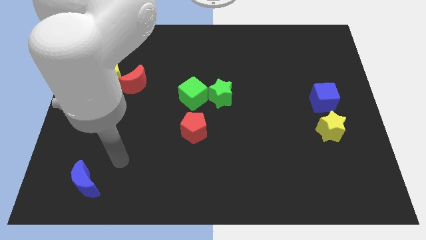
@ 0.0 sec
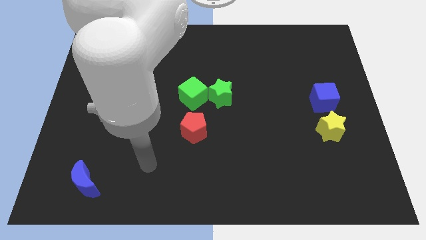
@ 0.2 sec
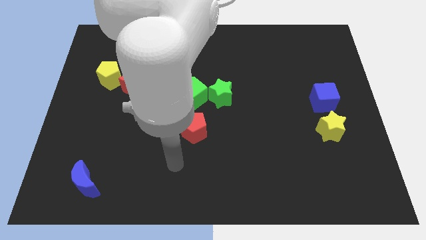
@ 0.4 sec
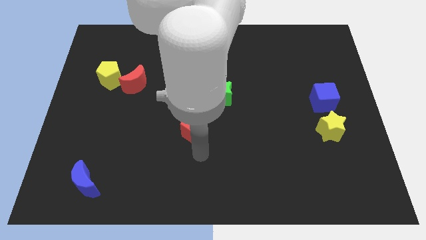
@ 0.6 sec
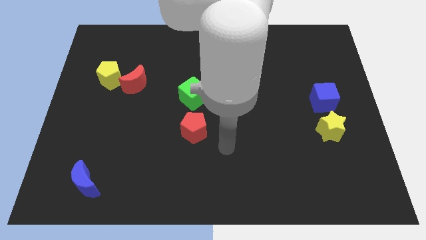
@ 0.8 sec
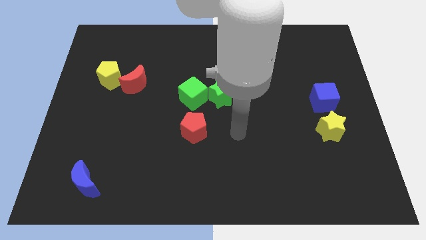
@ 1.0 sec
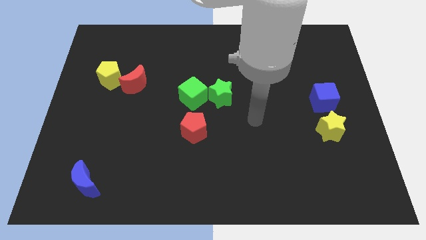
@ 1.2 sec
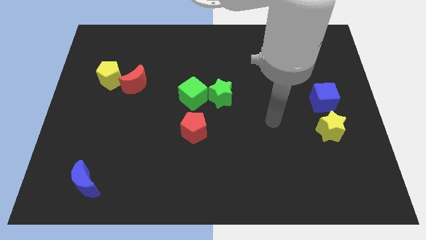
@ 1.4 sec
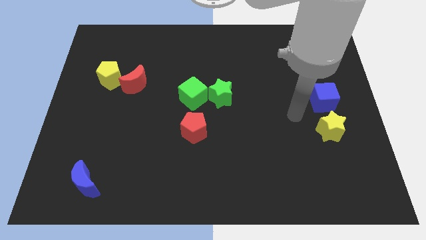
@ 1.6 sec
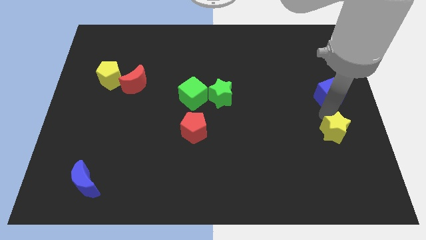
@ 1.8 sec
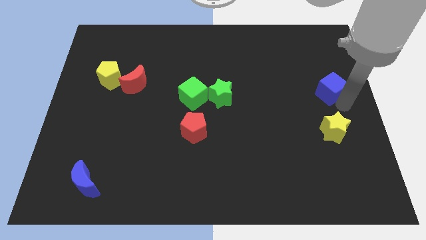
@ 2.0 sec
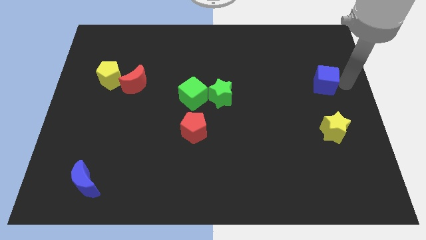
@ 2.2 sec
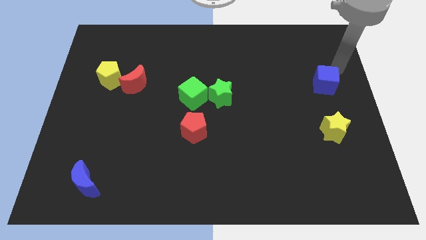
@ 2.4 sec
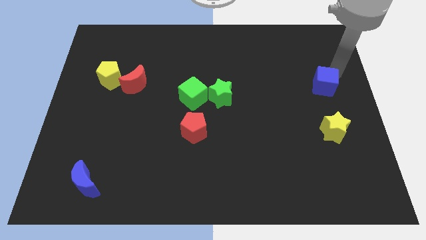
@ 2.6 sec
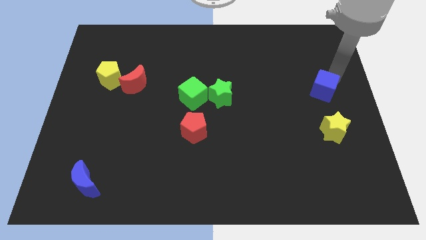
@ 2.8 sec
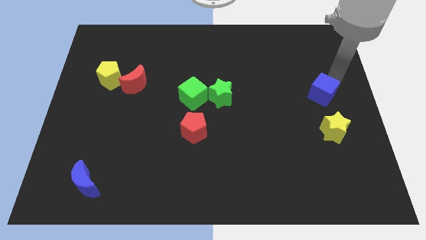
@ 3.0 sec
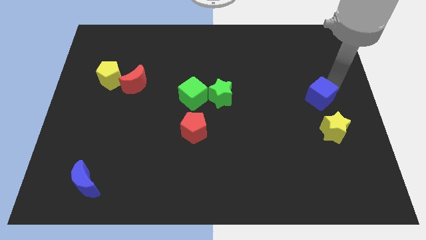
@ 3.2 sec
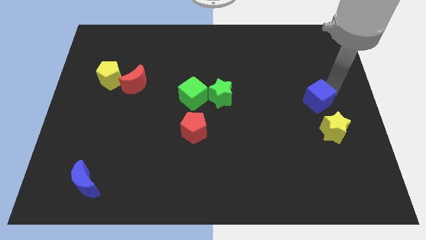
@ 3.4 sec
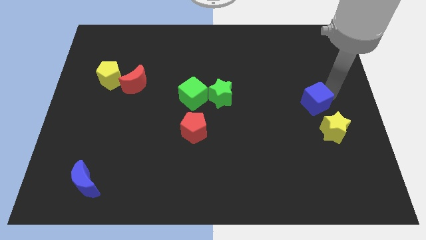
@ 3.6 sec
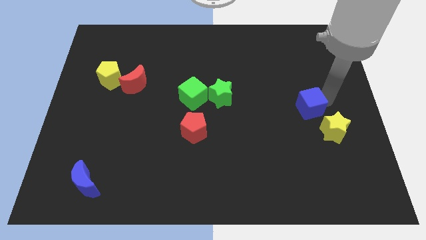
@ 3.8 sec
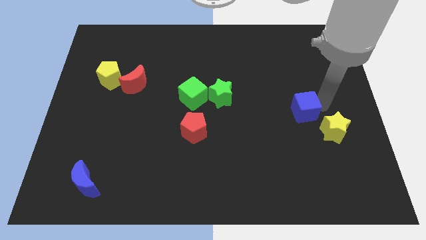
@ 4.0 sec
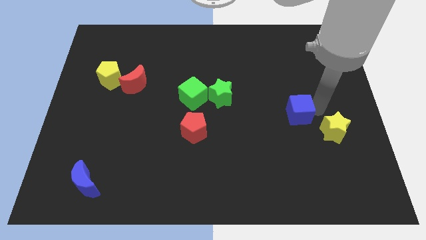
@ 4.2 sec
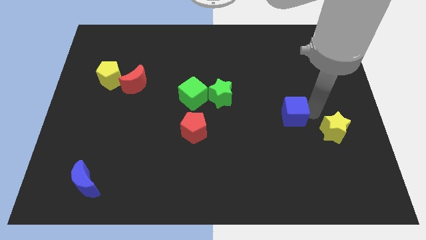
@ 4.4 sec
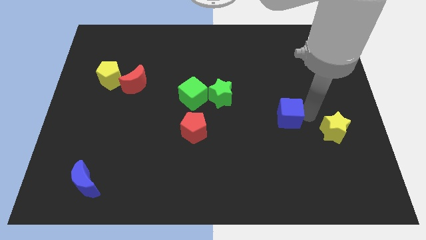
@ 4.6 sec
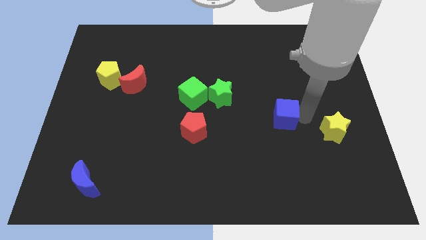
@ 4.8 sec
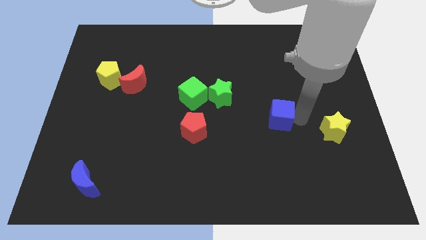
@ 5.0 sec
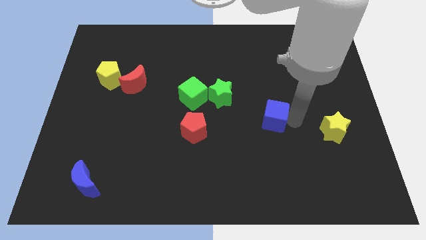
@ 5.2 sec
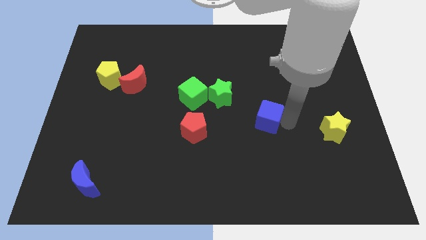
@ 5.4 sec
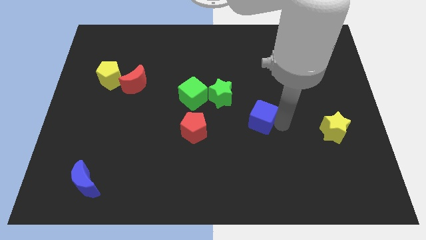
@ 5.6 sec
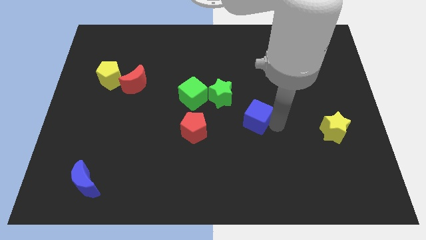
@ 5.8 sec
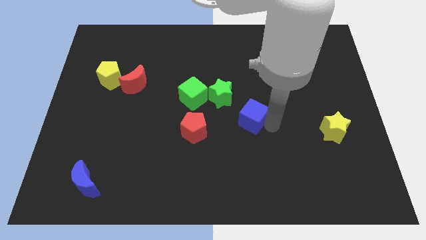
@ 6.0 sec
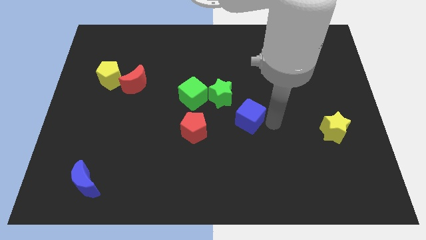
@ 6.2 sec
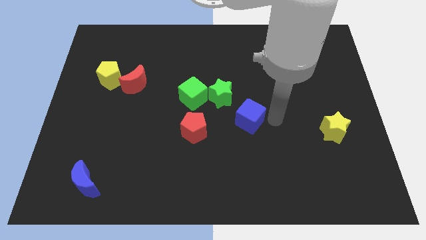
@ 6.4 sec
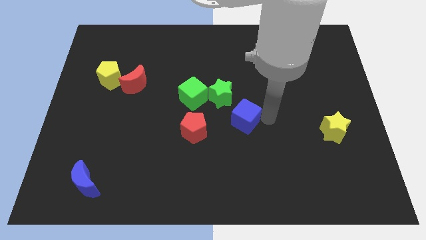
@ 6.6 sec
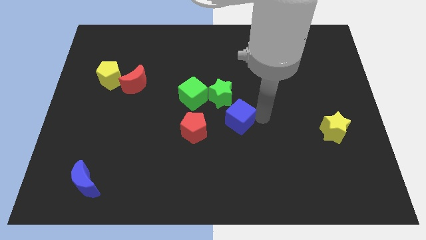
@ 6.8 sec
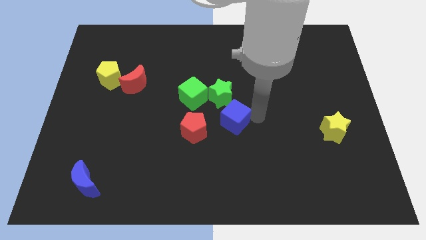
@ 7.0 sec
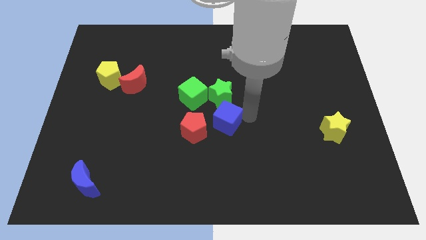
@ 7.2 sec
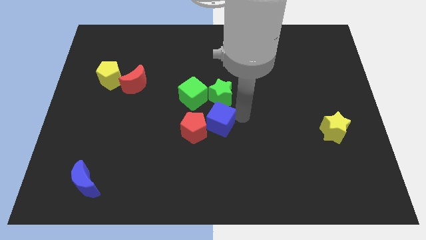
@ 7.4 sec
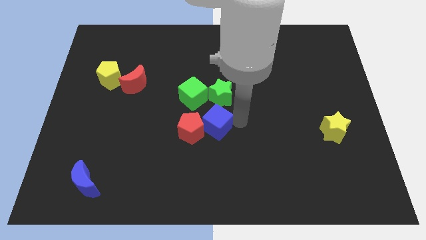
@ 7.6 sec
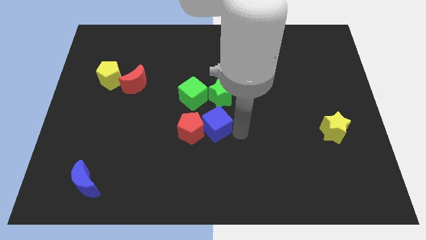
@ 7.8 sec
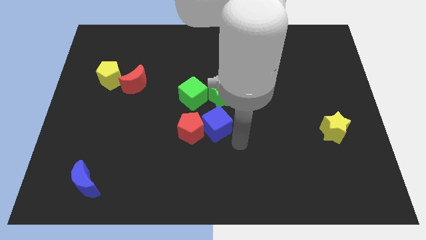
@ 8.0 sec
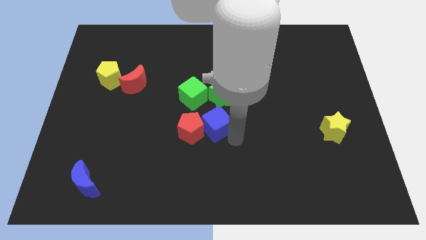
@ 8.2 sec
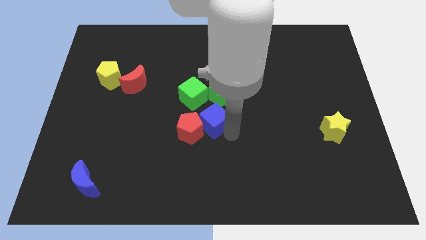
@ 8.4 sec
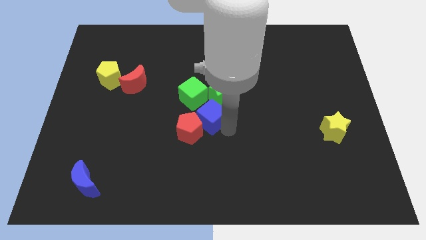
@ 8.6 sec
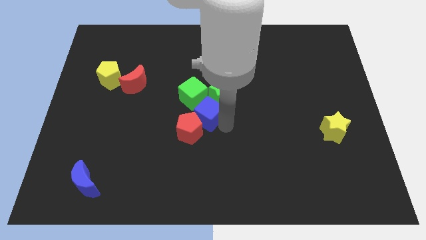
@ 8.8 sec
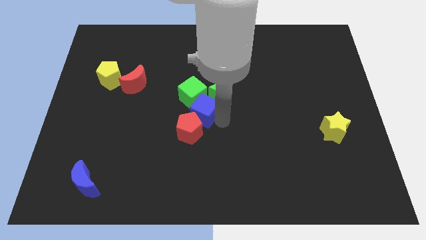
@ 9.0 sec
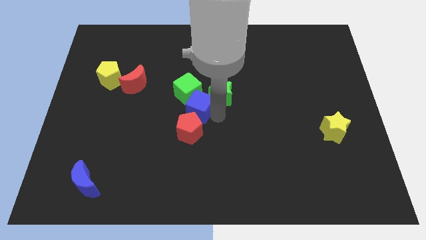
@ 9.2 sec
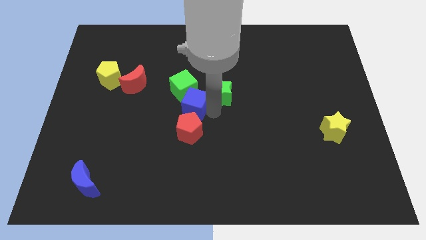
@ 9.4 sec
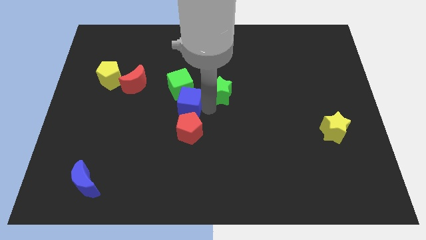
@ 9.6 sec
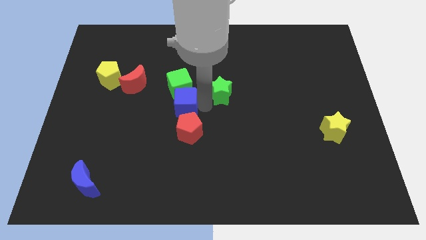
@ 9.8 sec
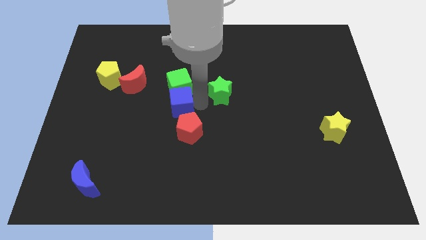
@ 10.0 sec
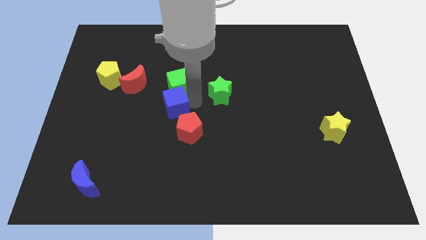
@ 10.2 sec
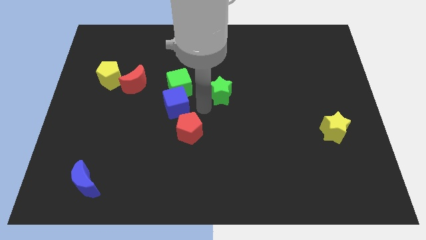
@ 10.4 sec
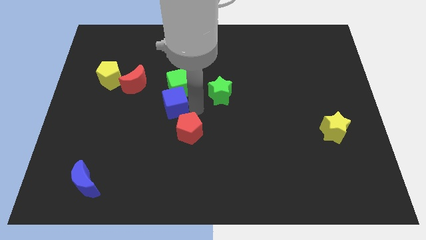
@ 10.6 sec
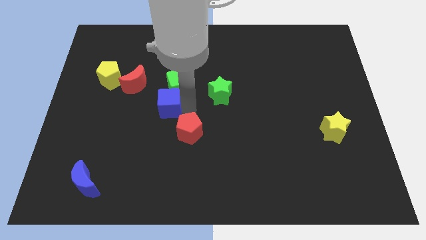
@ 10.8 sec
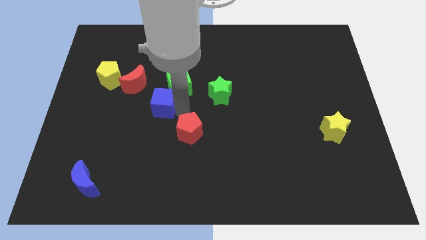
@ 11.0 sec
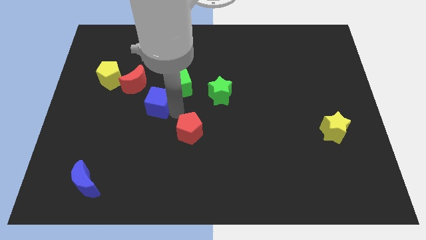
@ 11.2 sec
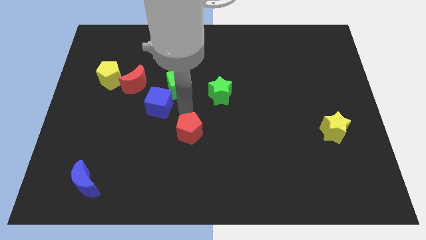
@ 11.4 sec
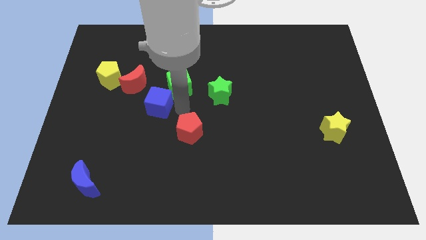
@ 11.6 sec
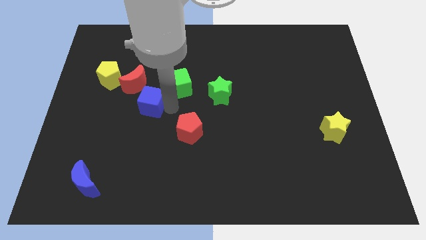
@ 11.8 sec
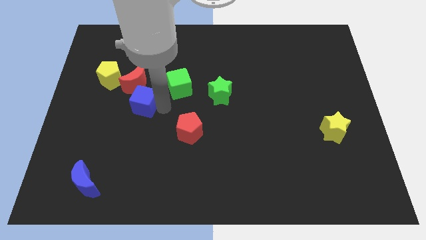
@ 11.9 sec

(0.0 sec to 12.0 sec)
push the blue cube diagonally down and to the right of the yellow pentagon

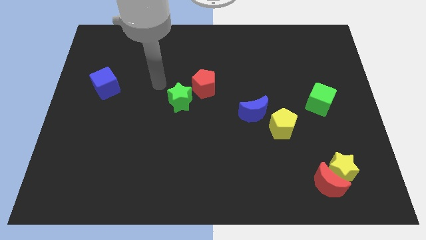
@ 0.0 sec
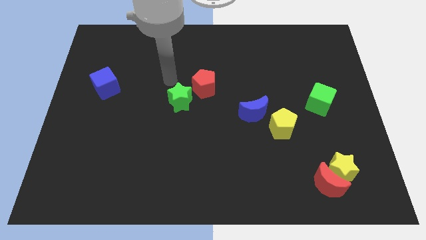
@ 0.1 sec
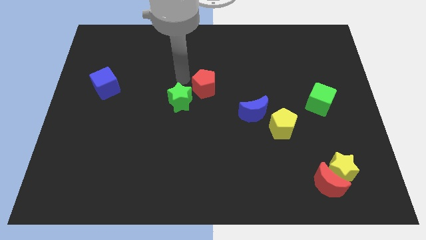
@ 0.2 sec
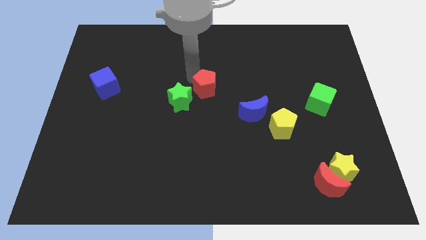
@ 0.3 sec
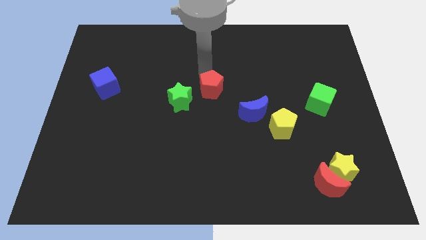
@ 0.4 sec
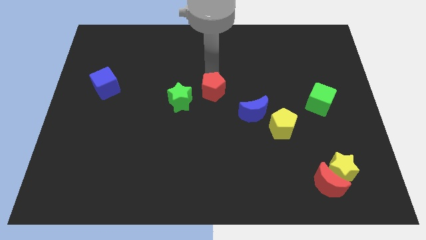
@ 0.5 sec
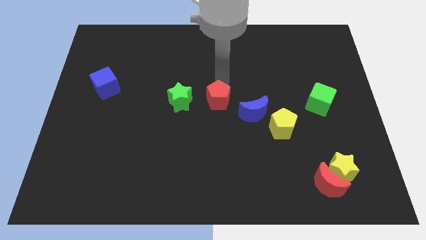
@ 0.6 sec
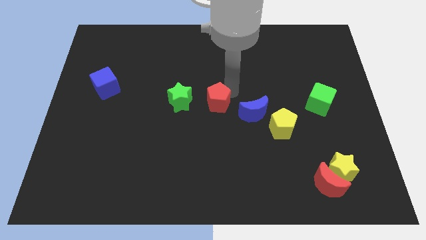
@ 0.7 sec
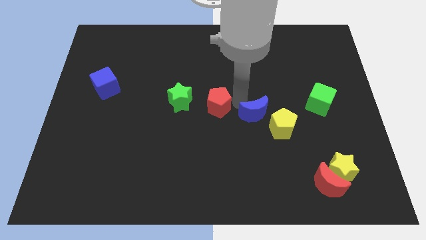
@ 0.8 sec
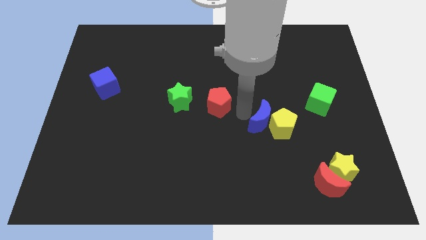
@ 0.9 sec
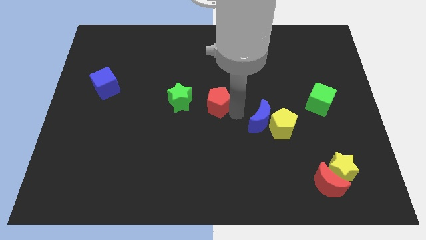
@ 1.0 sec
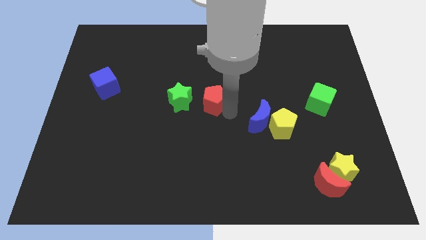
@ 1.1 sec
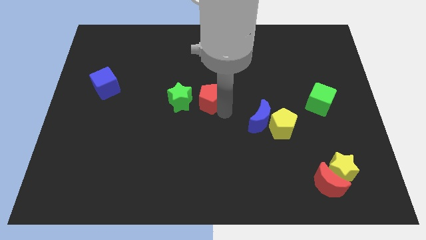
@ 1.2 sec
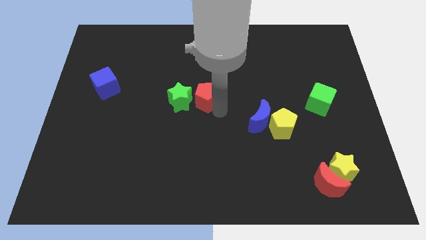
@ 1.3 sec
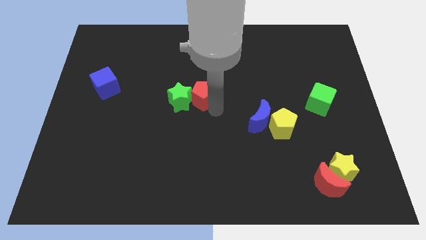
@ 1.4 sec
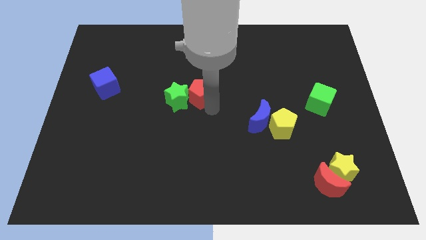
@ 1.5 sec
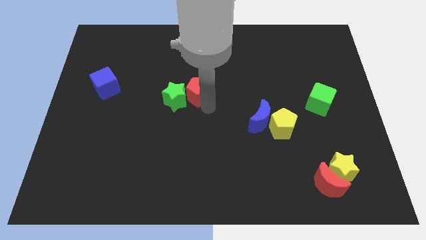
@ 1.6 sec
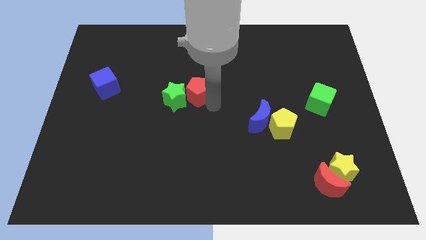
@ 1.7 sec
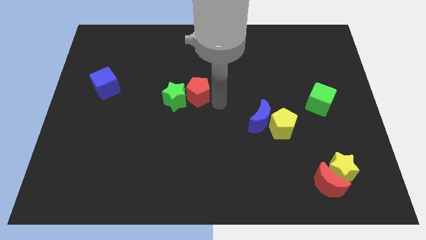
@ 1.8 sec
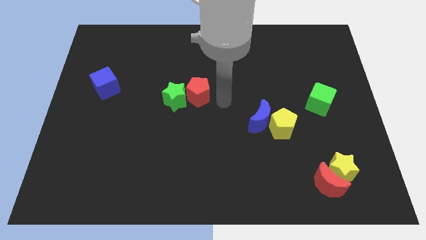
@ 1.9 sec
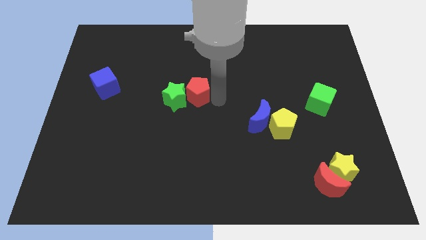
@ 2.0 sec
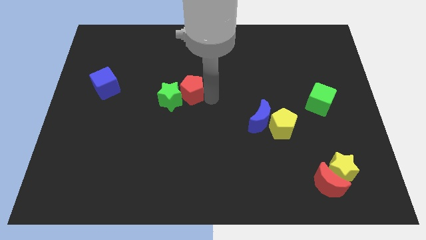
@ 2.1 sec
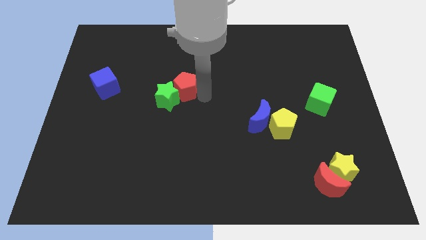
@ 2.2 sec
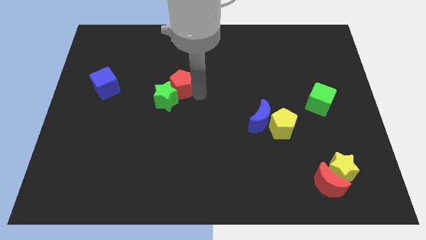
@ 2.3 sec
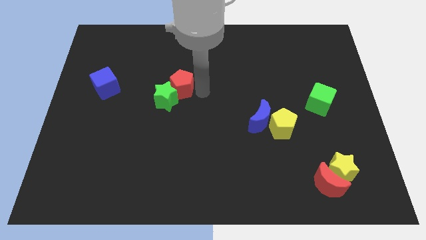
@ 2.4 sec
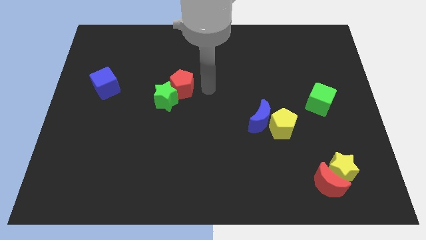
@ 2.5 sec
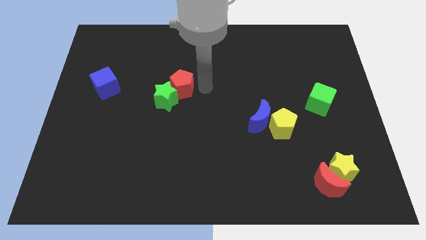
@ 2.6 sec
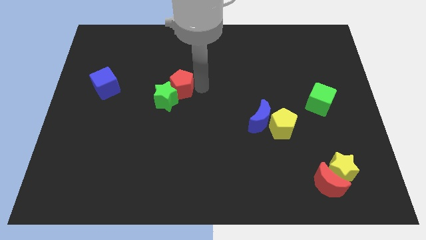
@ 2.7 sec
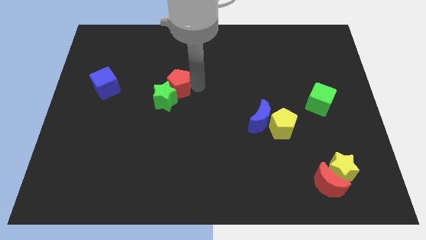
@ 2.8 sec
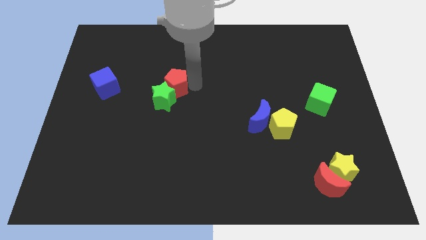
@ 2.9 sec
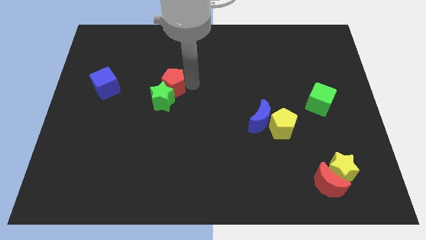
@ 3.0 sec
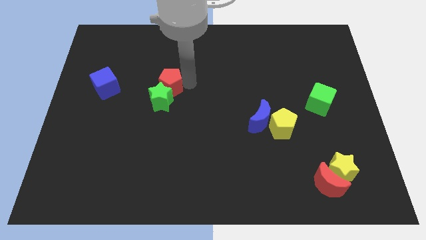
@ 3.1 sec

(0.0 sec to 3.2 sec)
slide the red pentagon to the right of the blue cube
